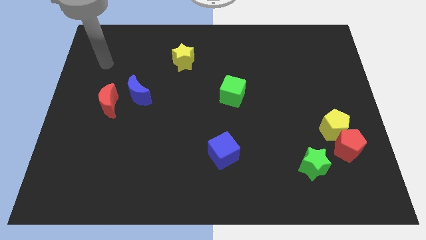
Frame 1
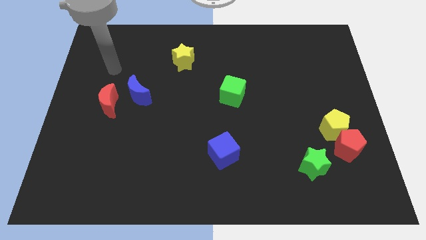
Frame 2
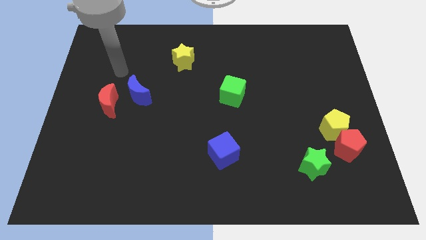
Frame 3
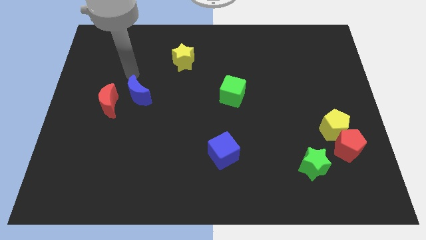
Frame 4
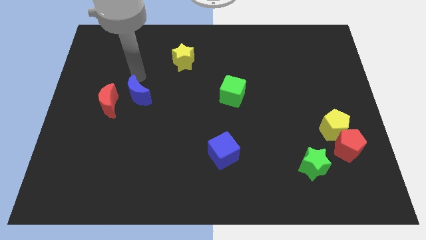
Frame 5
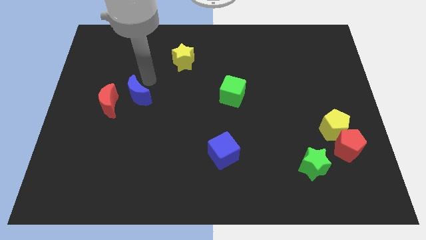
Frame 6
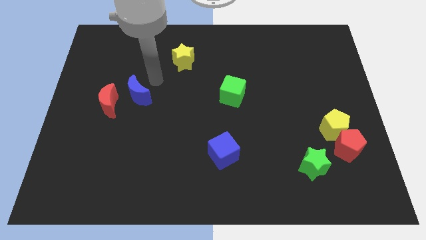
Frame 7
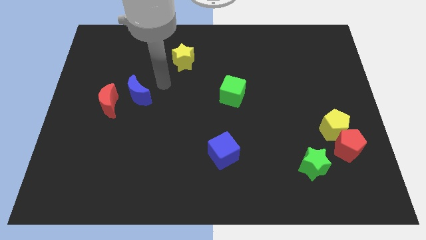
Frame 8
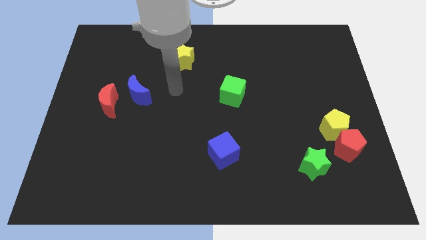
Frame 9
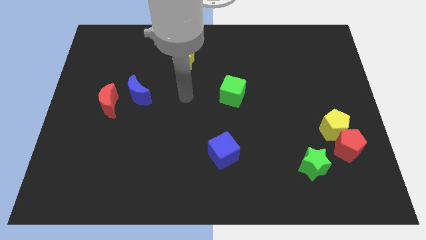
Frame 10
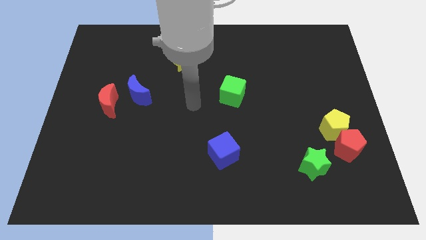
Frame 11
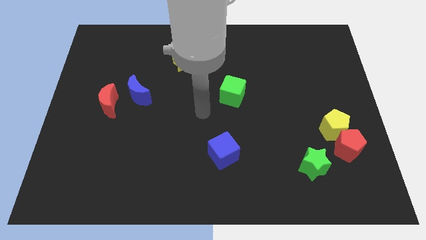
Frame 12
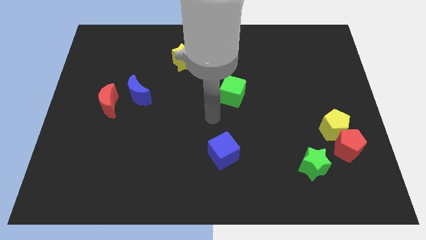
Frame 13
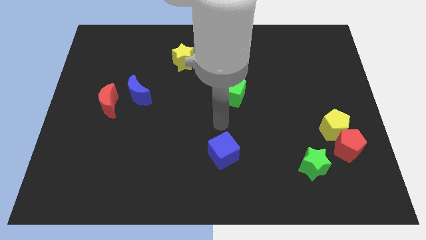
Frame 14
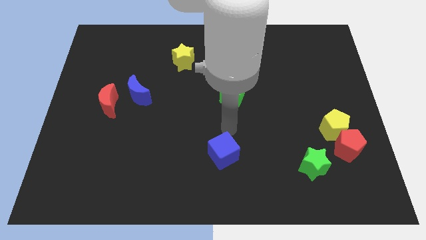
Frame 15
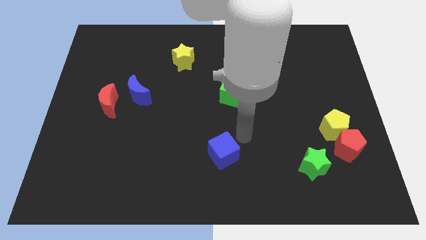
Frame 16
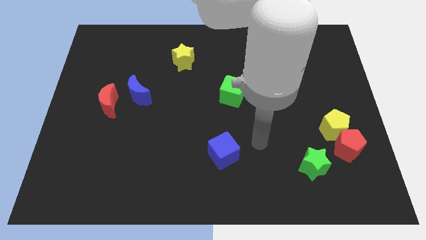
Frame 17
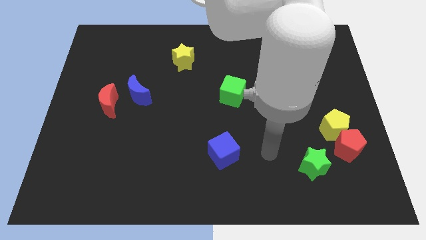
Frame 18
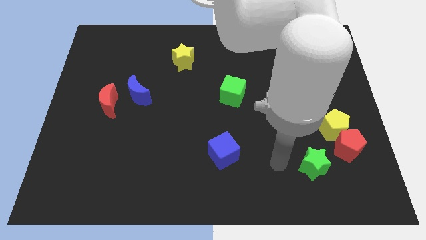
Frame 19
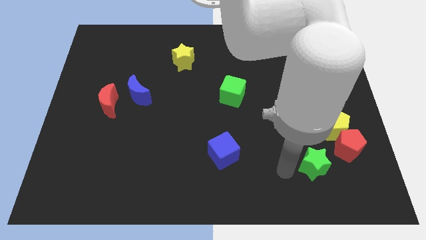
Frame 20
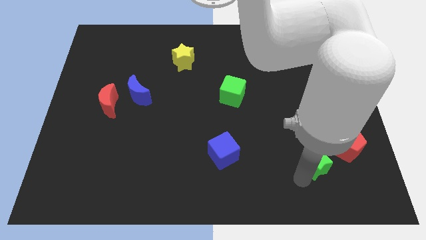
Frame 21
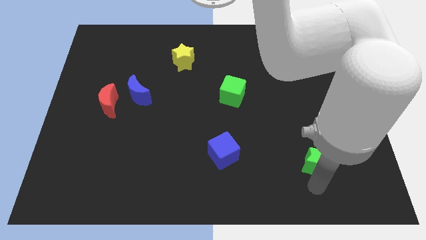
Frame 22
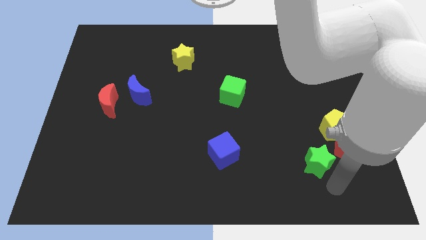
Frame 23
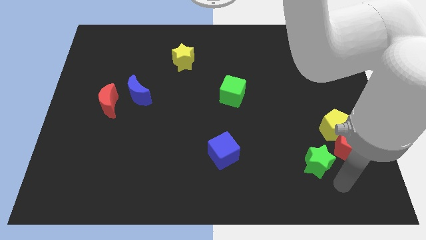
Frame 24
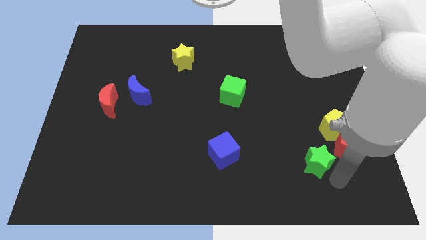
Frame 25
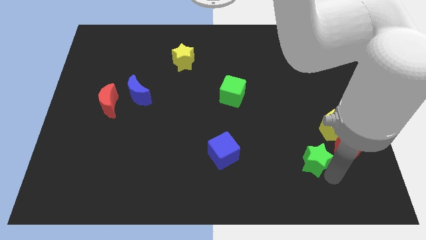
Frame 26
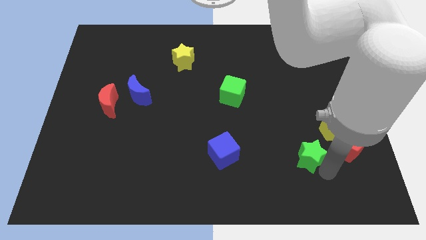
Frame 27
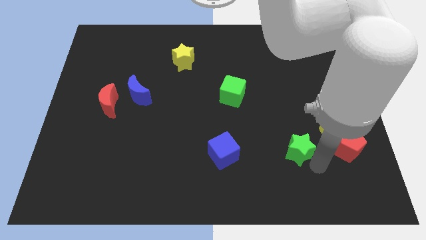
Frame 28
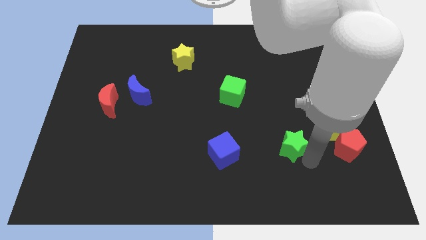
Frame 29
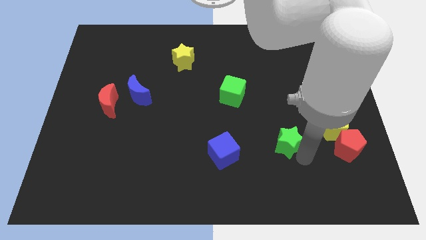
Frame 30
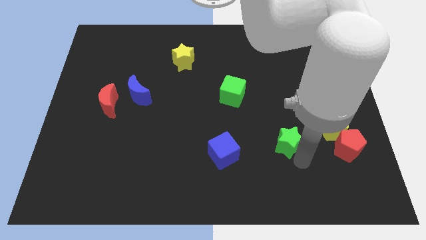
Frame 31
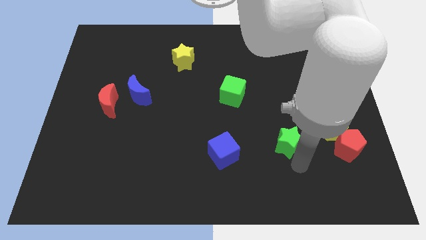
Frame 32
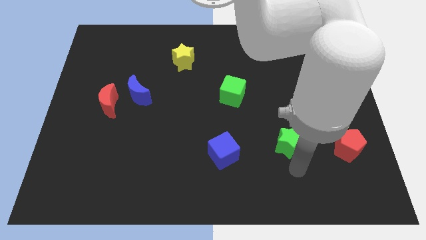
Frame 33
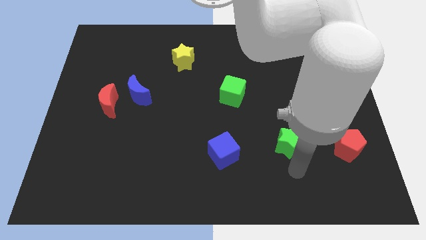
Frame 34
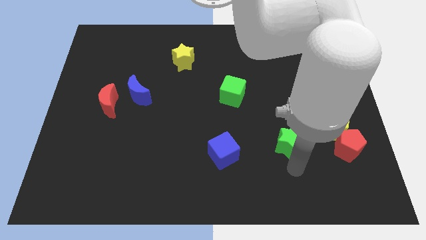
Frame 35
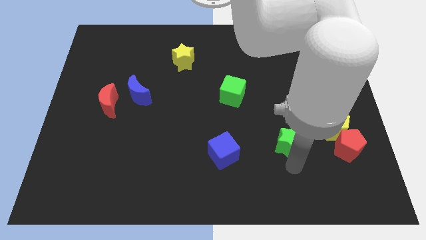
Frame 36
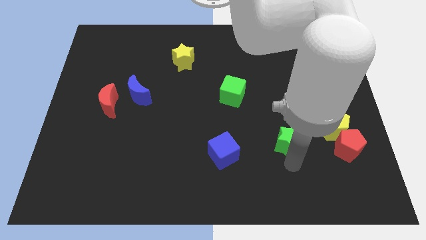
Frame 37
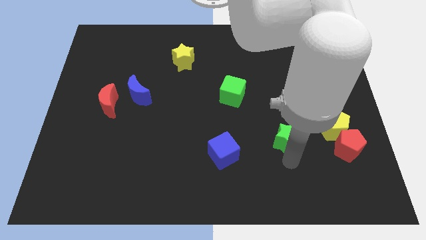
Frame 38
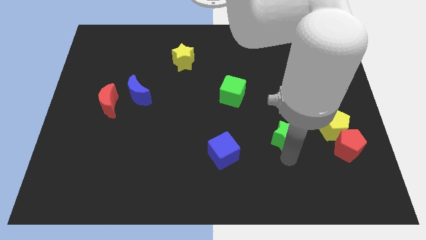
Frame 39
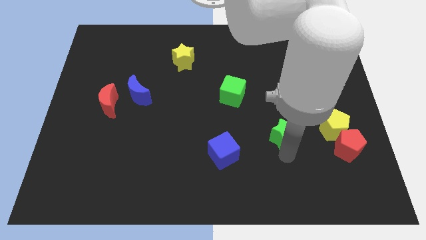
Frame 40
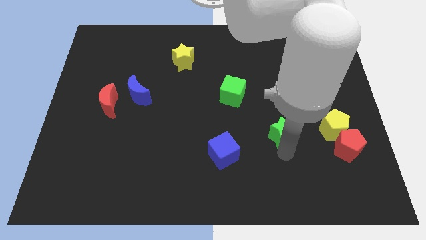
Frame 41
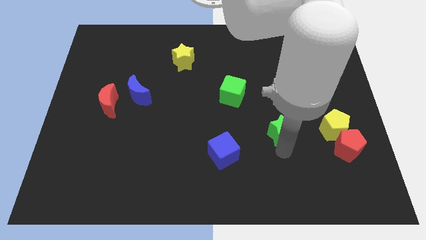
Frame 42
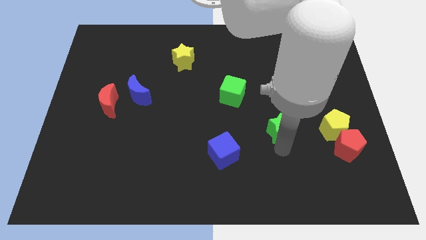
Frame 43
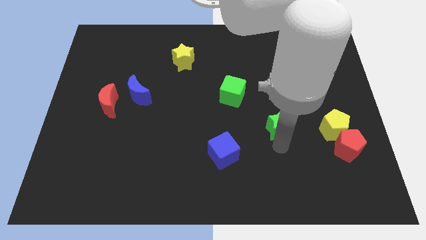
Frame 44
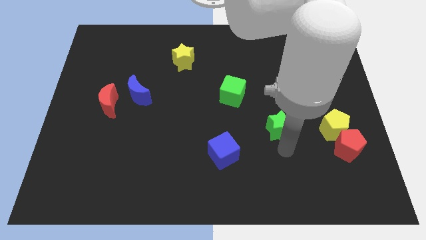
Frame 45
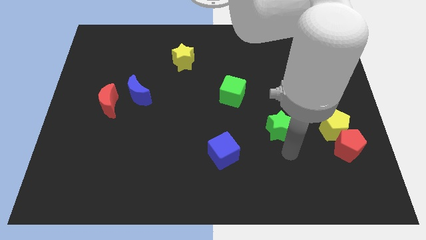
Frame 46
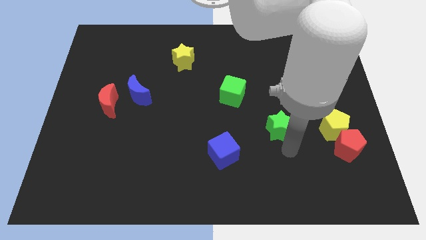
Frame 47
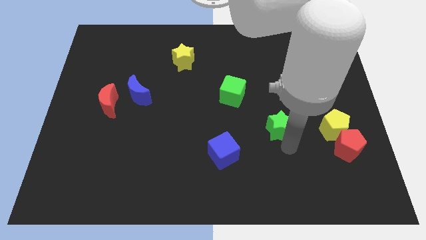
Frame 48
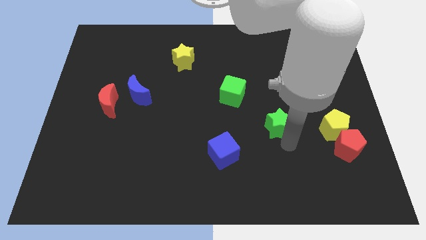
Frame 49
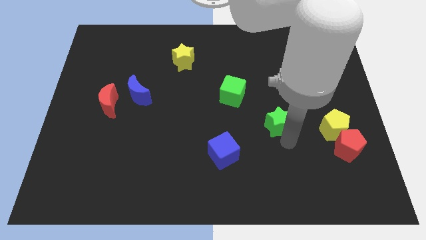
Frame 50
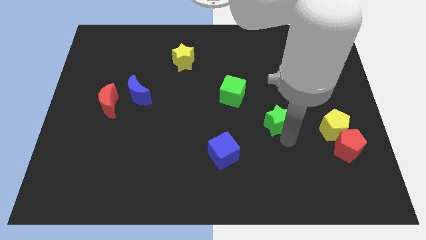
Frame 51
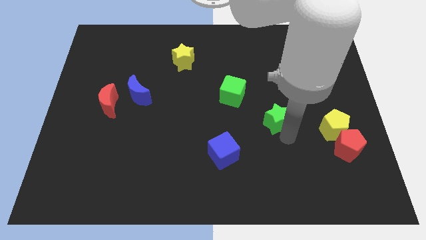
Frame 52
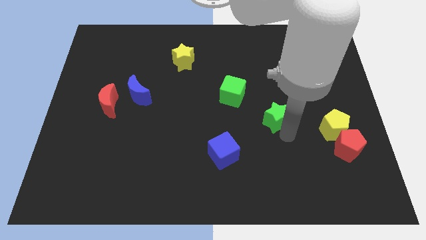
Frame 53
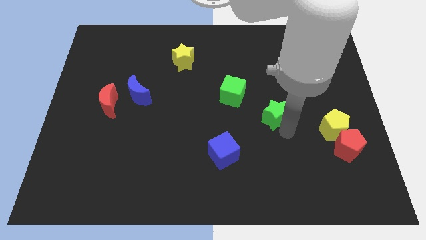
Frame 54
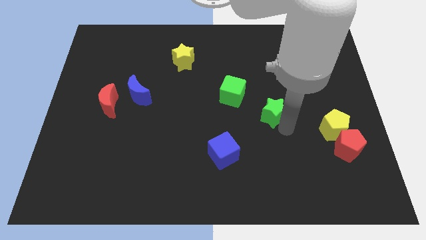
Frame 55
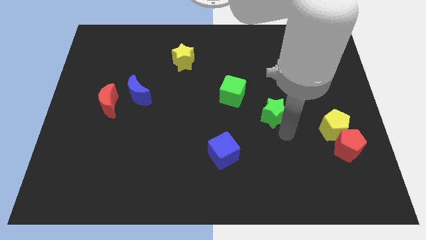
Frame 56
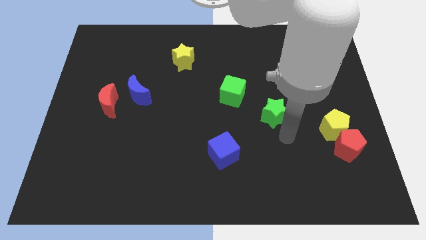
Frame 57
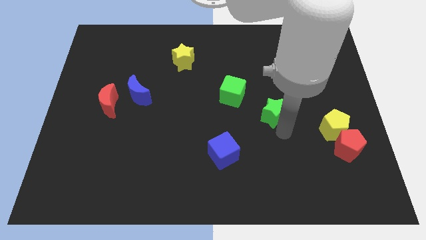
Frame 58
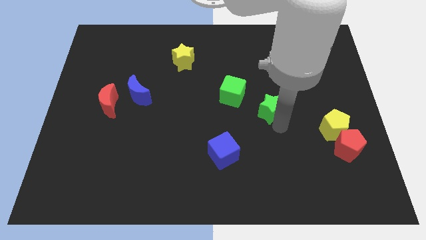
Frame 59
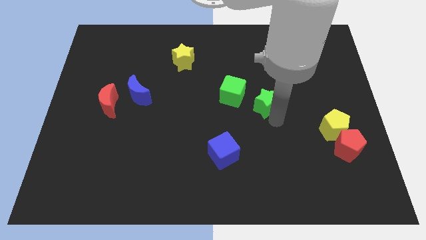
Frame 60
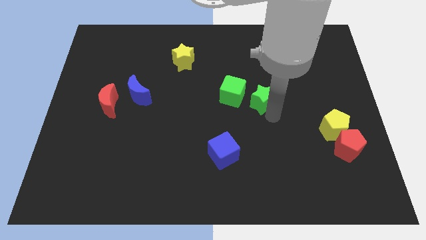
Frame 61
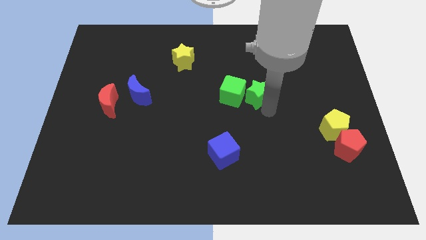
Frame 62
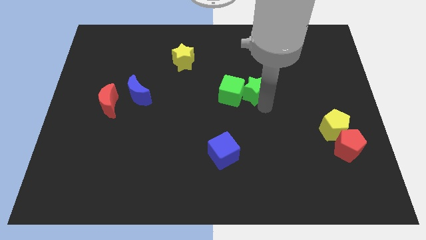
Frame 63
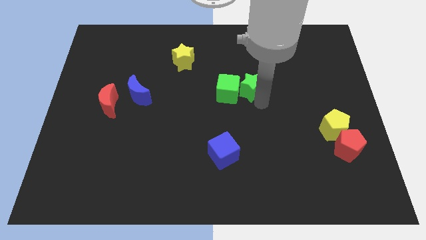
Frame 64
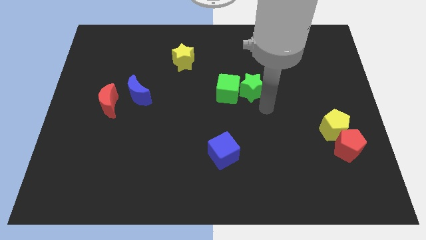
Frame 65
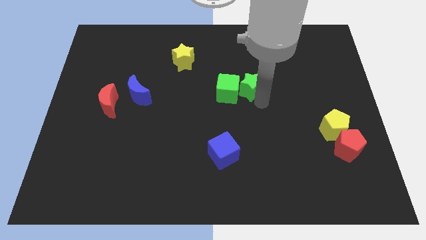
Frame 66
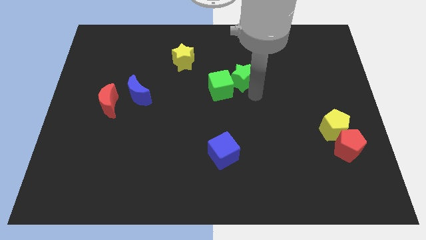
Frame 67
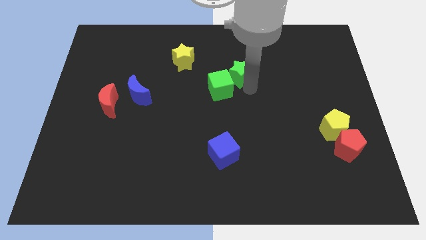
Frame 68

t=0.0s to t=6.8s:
slide the green star to the top side of the green cube

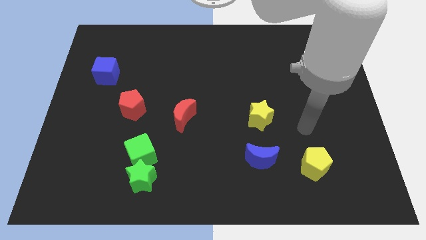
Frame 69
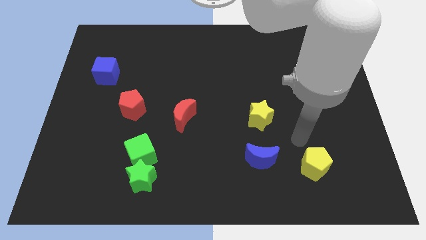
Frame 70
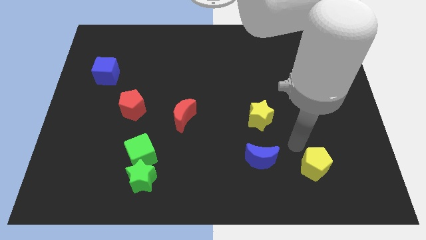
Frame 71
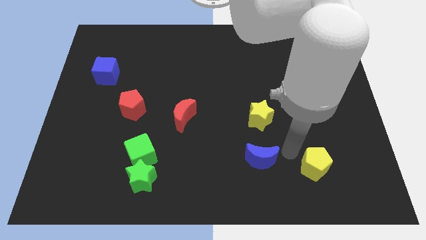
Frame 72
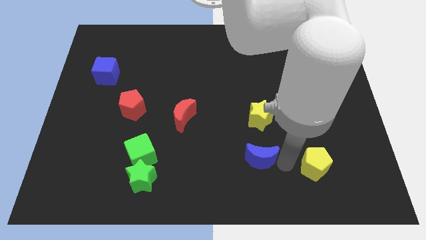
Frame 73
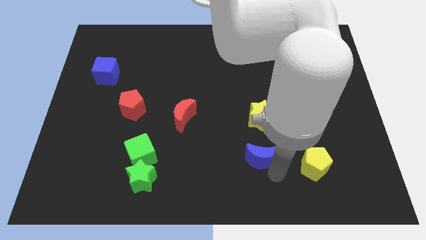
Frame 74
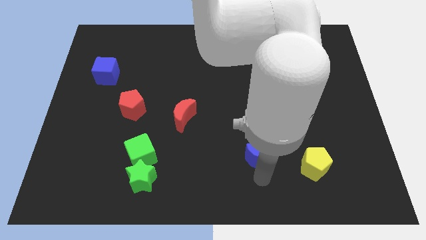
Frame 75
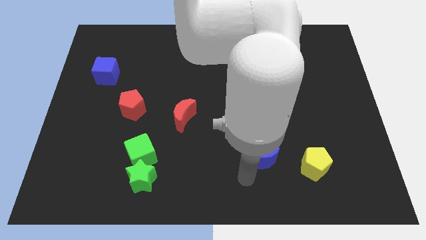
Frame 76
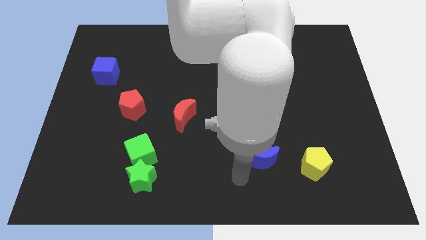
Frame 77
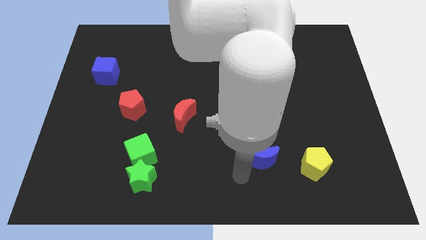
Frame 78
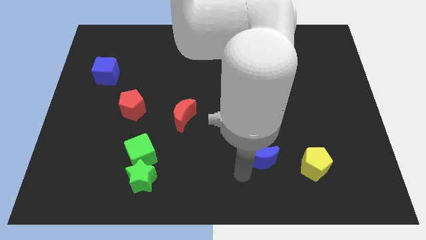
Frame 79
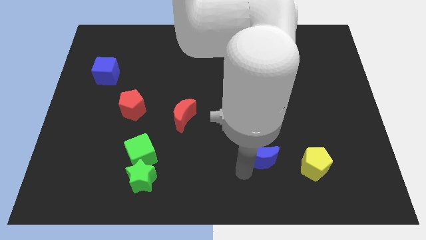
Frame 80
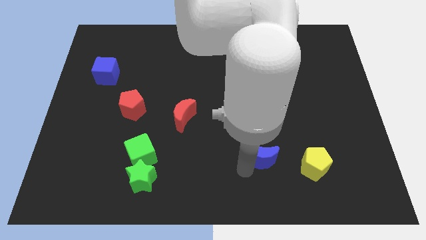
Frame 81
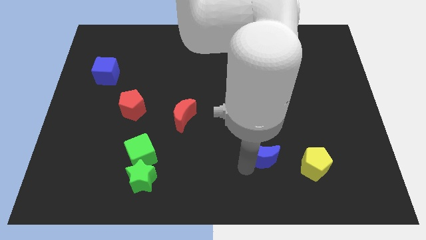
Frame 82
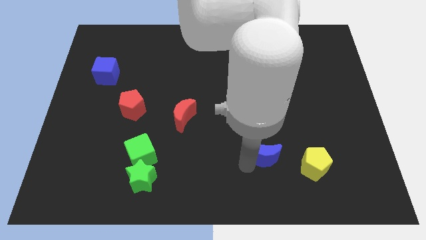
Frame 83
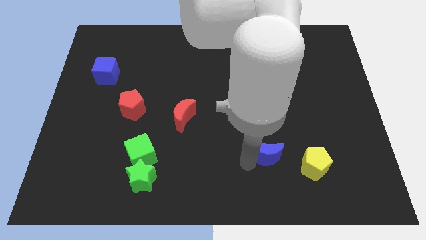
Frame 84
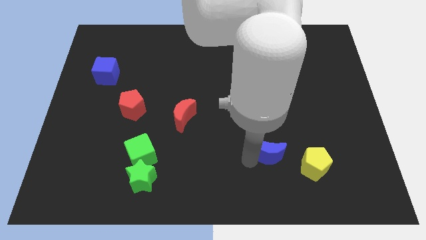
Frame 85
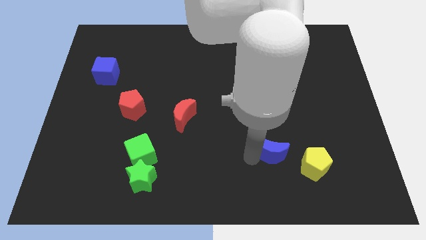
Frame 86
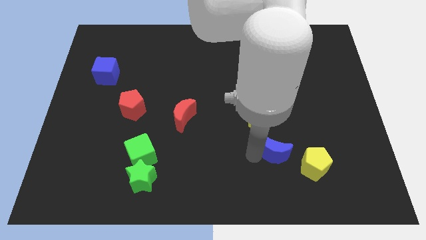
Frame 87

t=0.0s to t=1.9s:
slide the blue moon to the bottom right of the yellow star

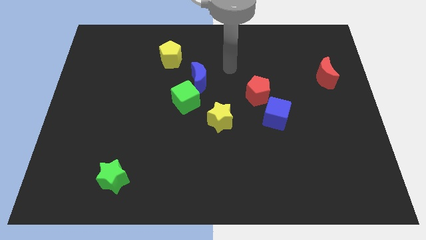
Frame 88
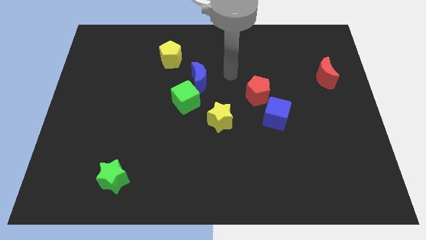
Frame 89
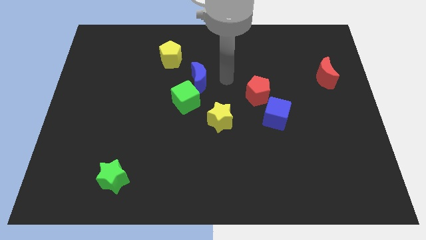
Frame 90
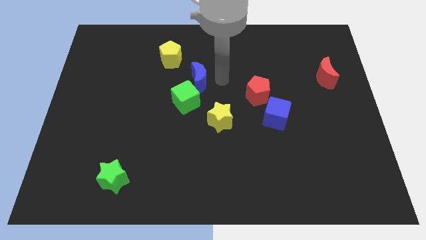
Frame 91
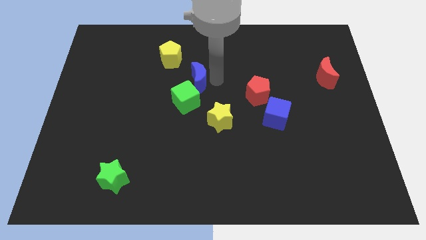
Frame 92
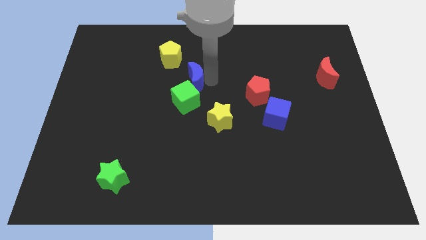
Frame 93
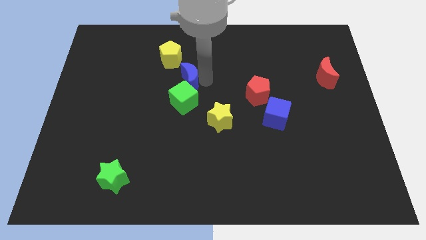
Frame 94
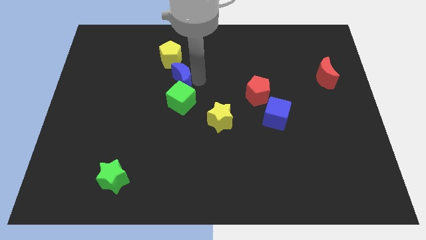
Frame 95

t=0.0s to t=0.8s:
push the blue moon to the top left side of the green cube
